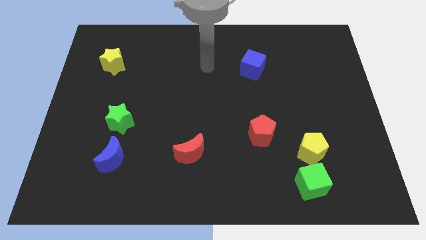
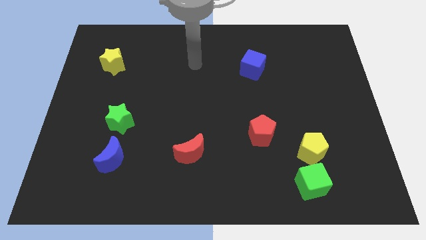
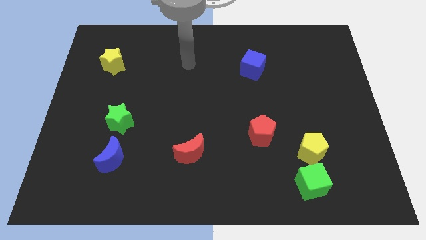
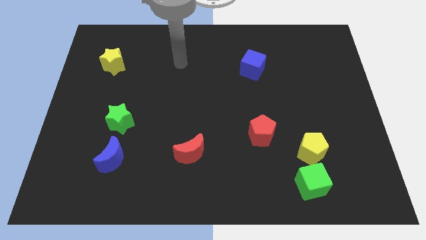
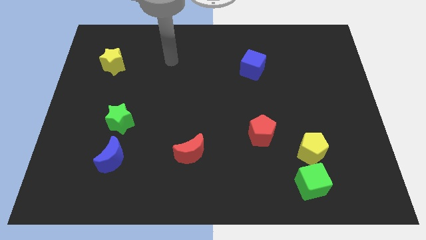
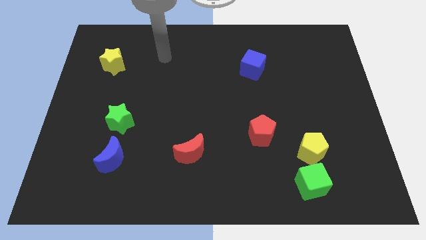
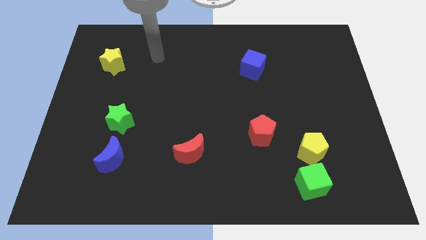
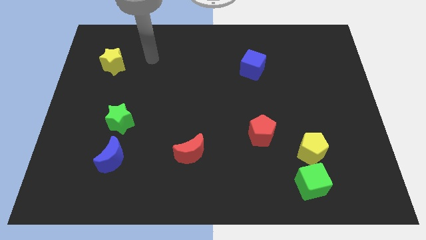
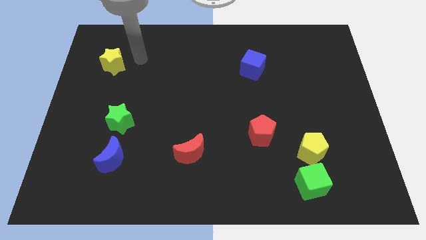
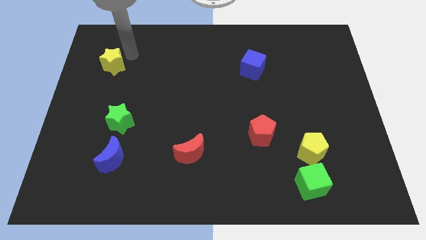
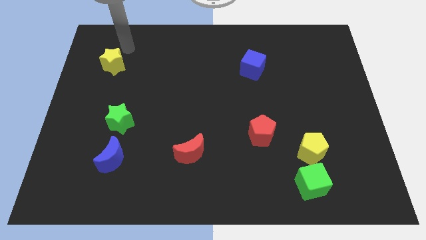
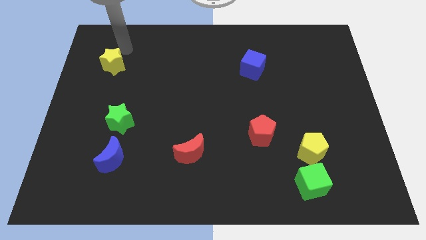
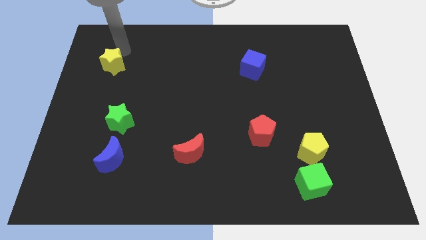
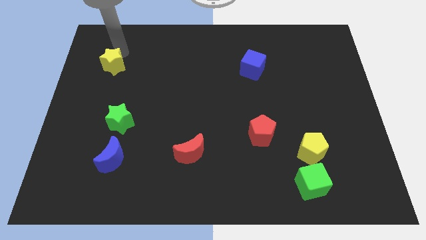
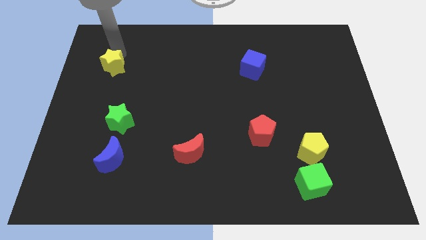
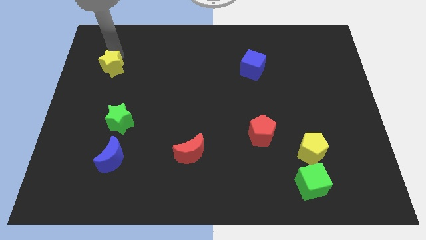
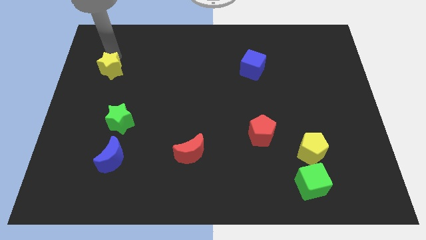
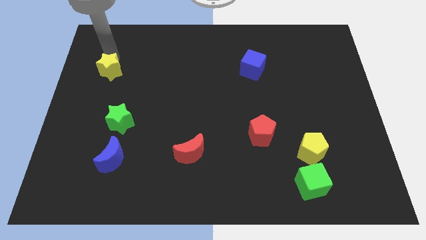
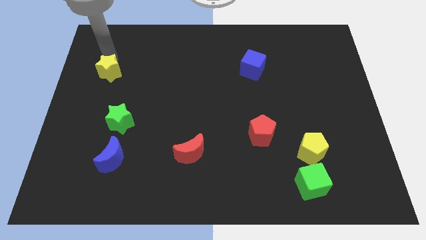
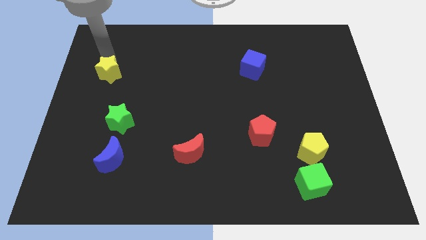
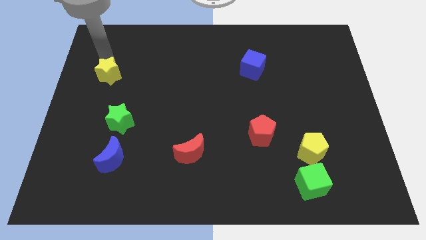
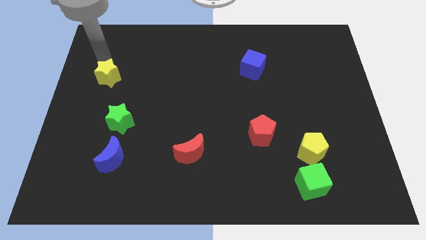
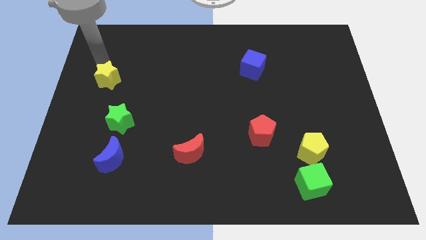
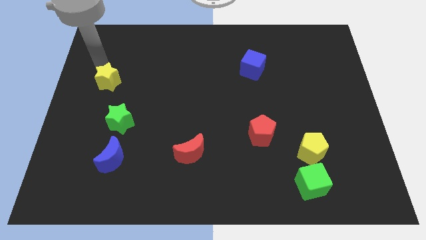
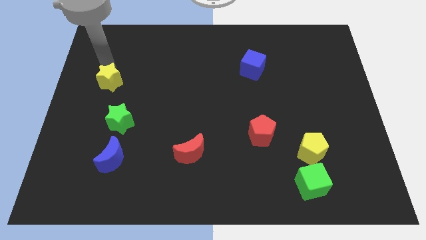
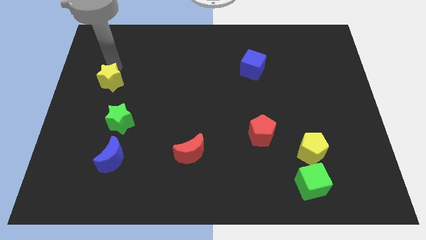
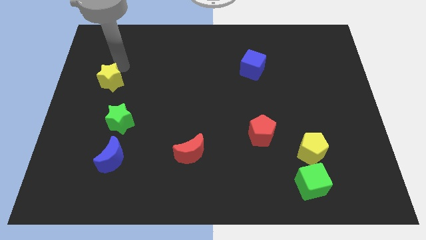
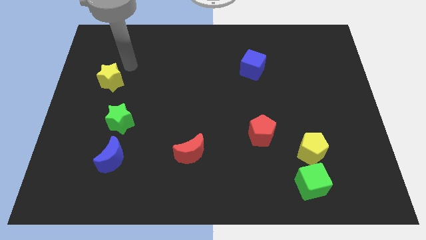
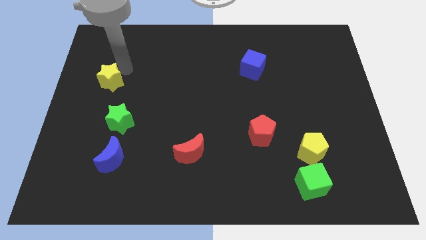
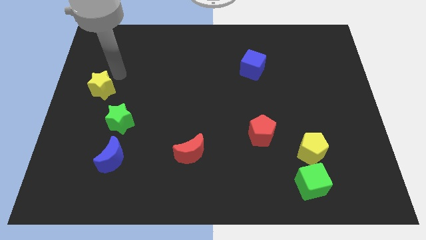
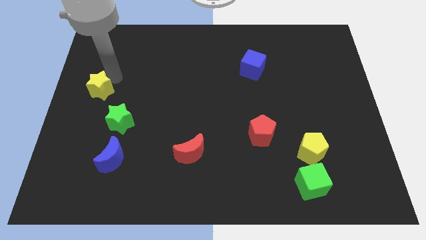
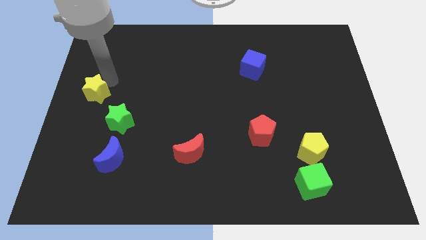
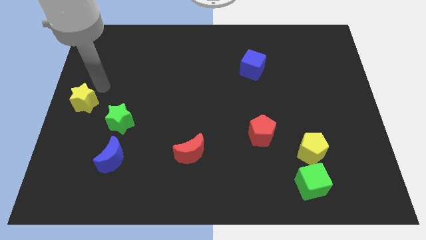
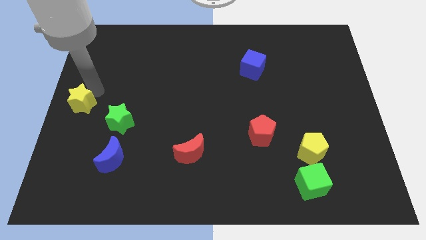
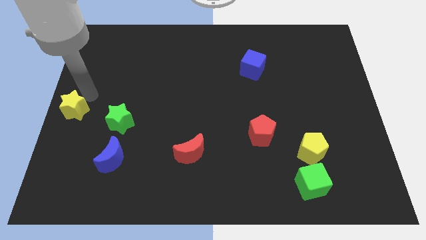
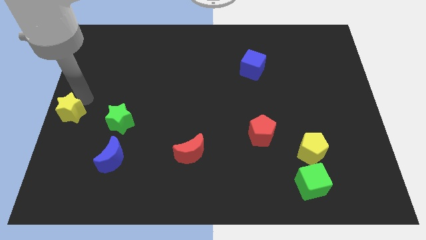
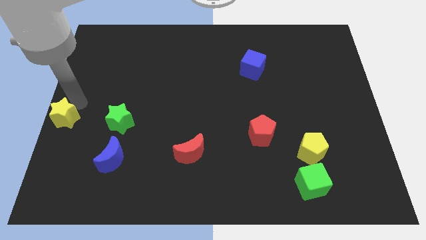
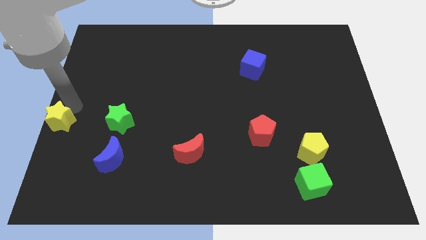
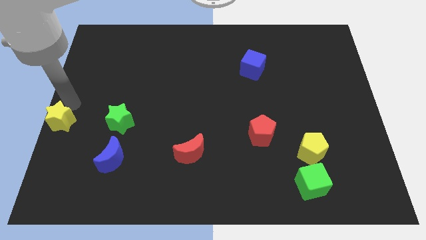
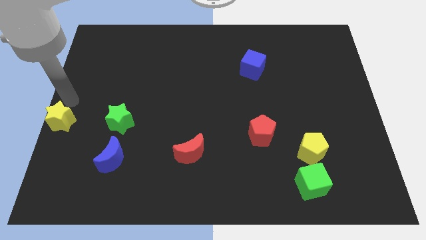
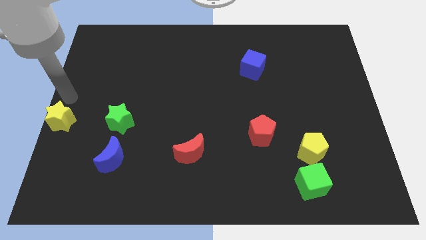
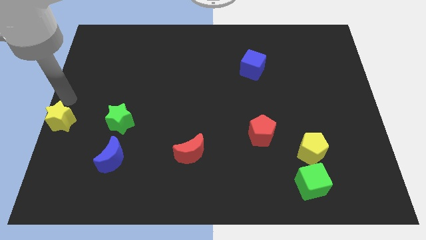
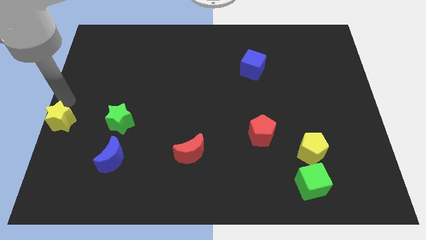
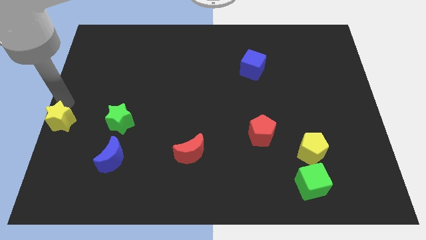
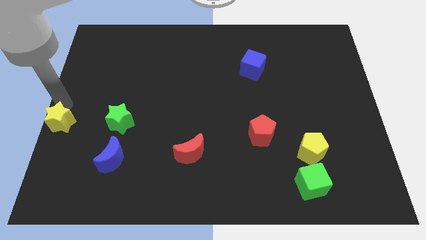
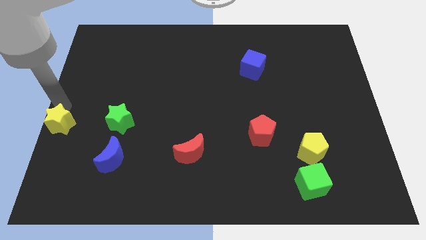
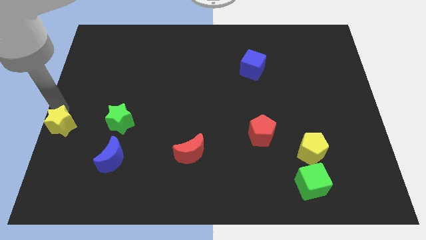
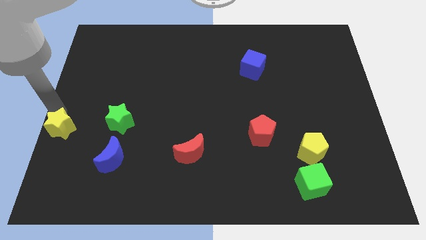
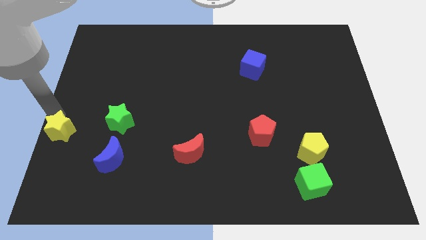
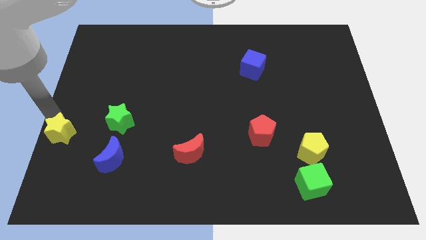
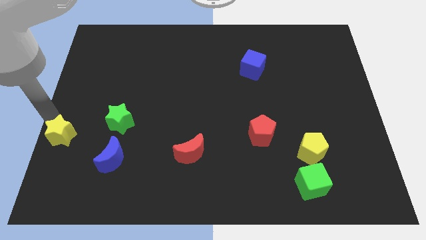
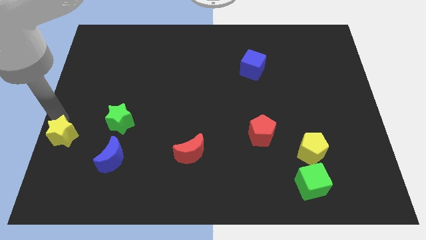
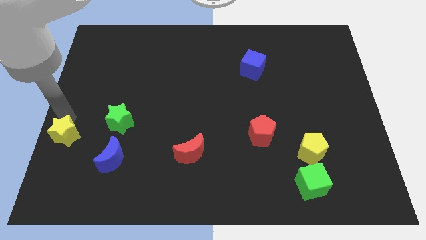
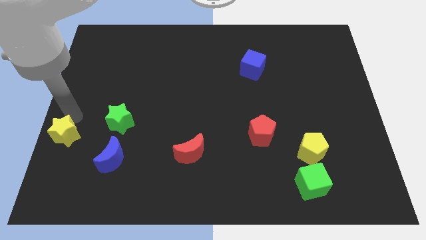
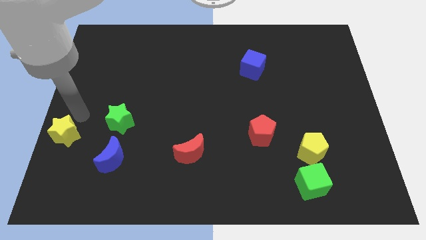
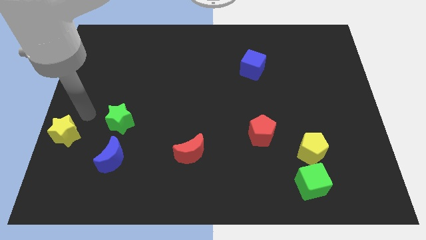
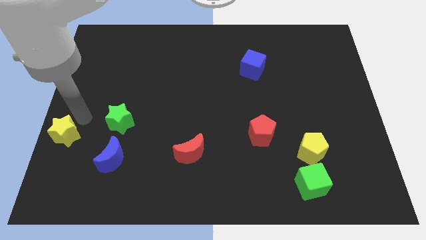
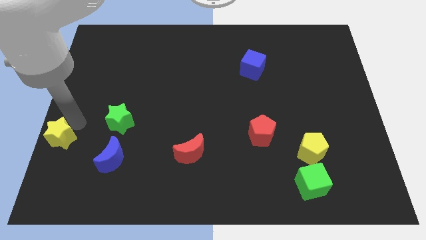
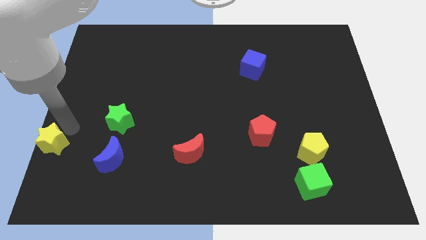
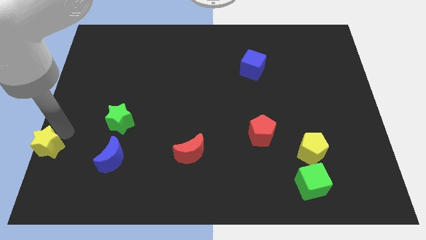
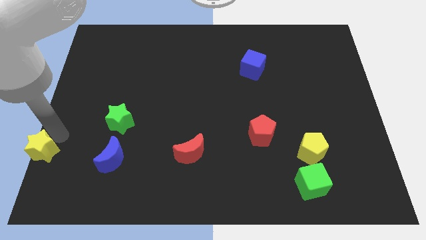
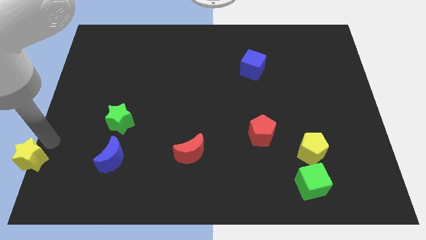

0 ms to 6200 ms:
put the yellow star to the lower left corner

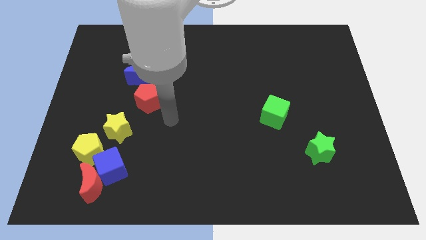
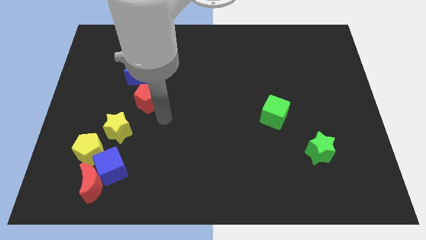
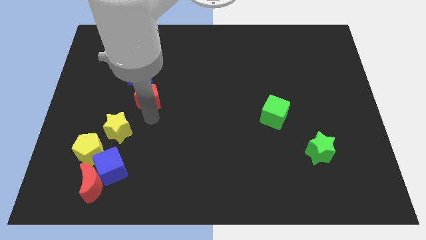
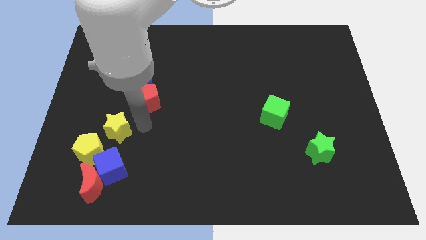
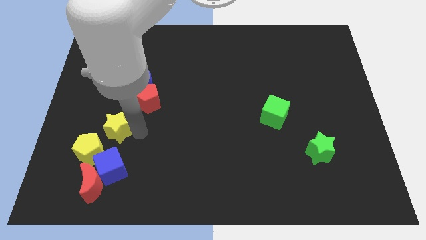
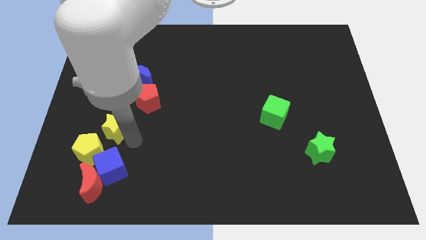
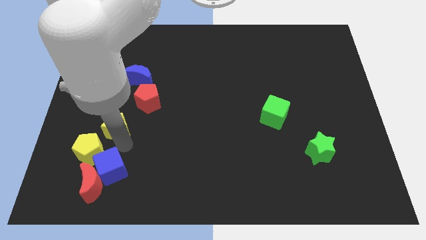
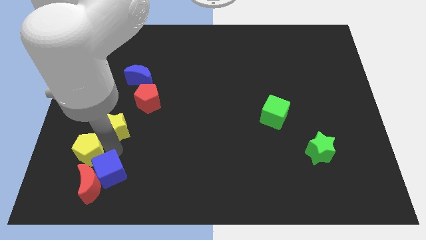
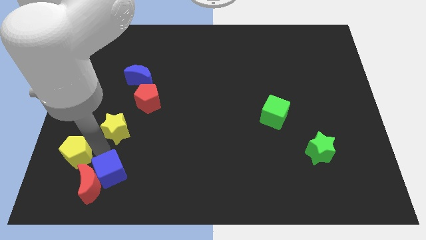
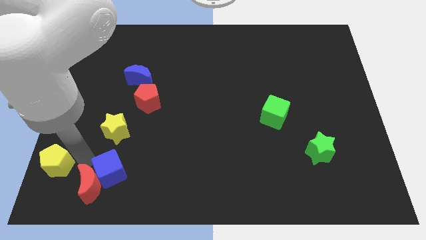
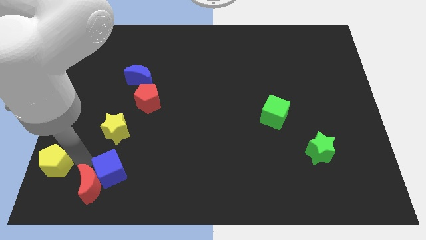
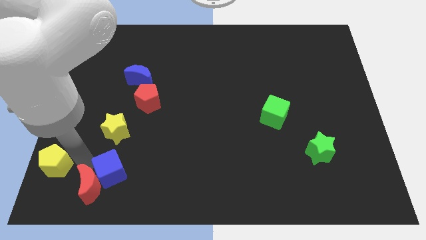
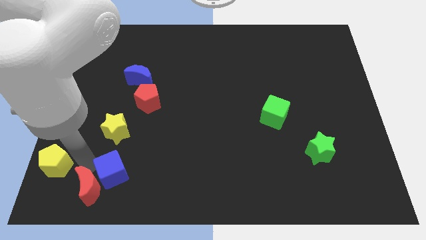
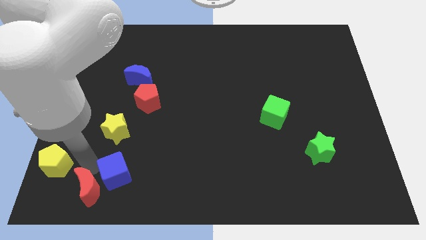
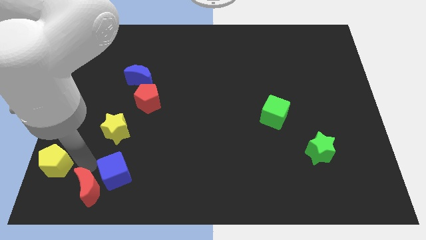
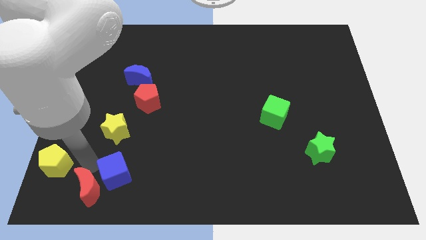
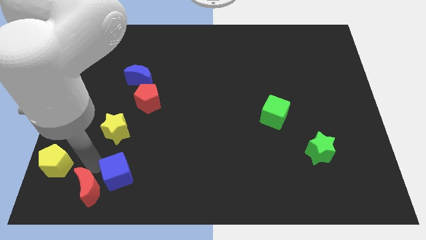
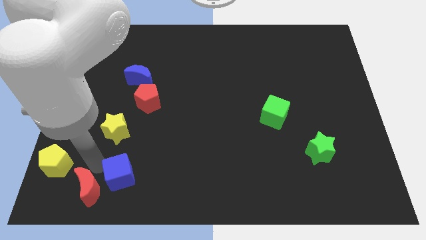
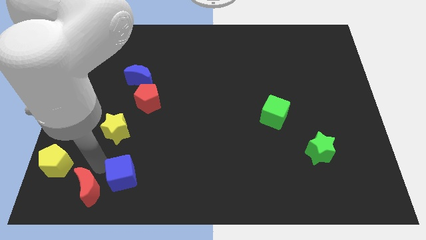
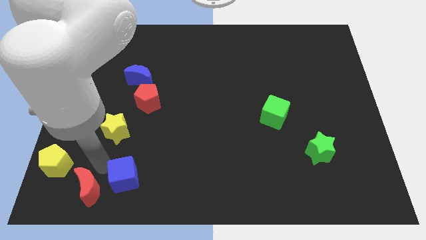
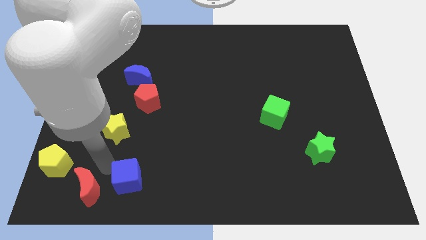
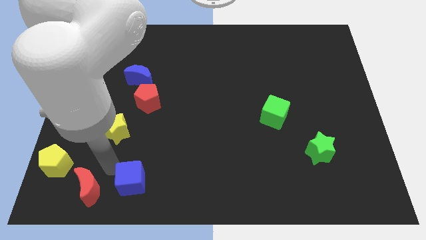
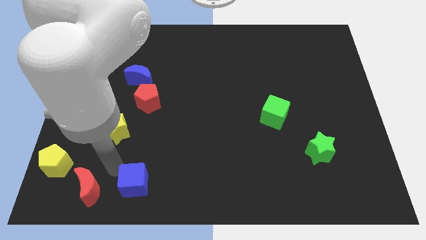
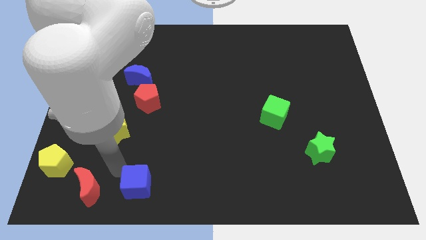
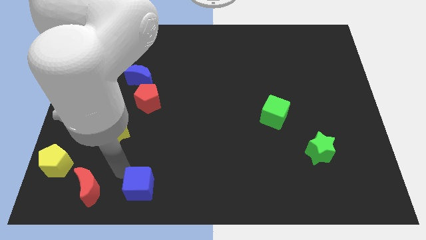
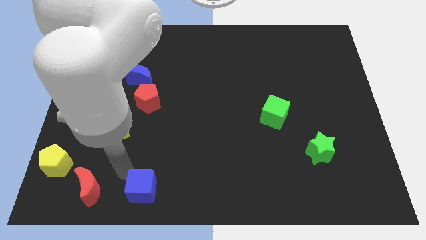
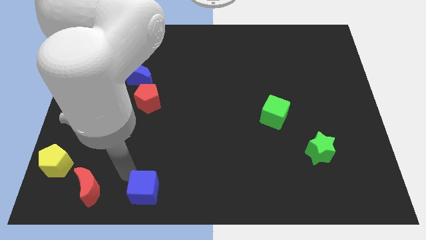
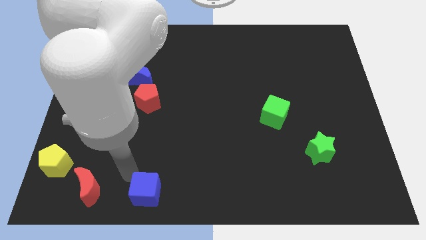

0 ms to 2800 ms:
push the blue cube to the bottom side
